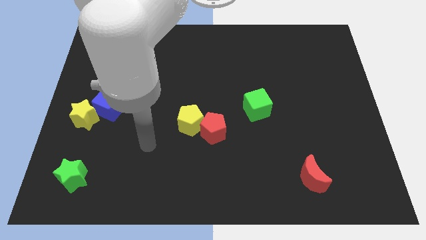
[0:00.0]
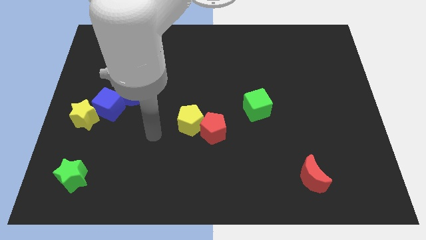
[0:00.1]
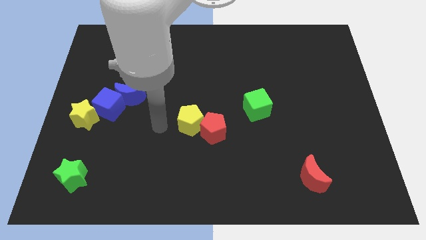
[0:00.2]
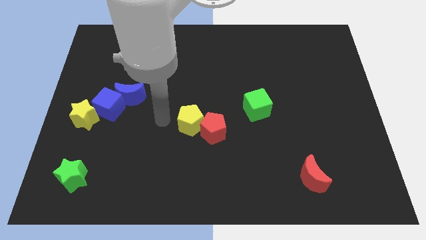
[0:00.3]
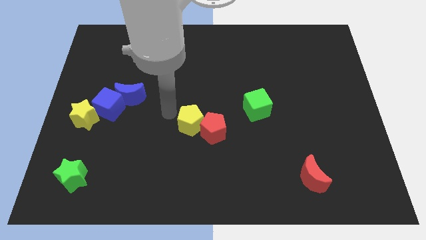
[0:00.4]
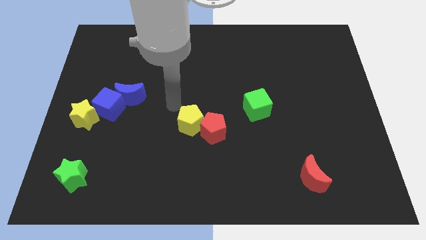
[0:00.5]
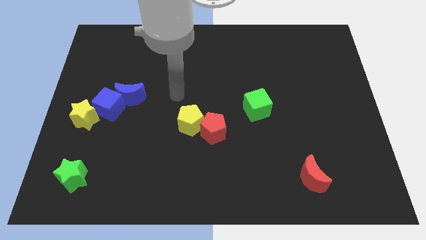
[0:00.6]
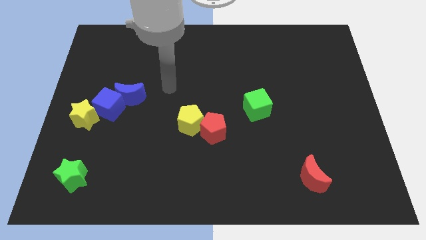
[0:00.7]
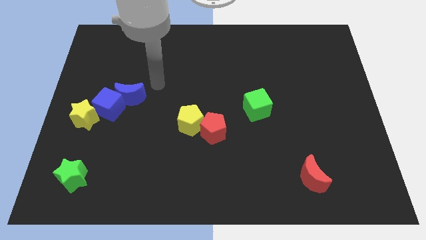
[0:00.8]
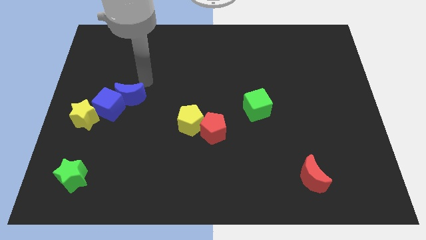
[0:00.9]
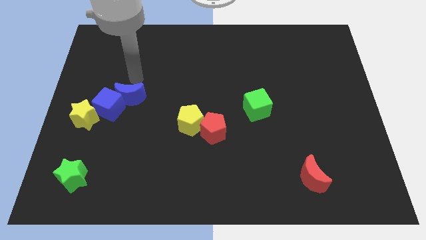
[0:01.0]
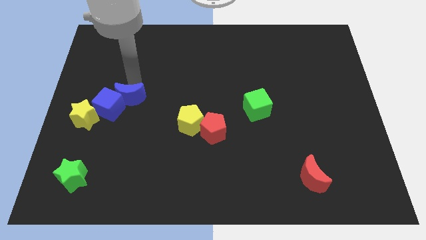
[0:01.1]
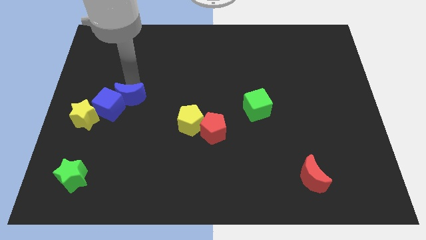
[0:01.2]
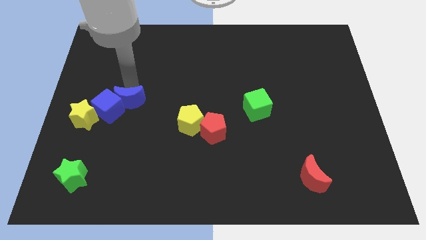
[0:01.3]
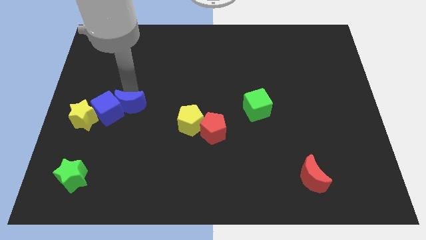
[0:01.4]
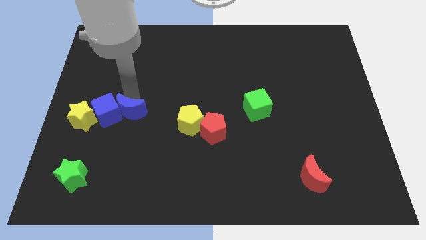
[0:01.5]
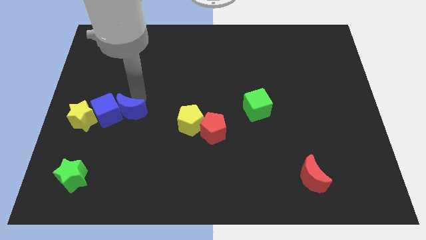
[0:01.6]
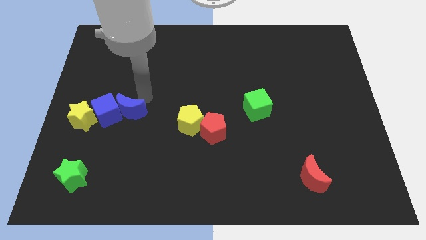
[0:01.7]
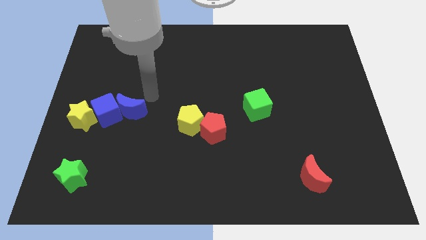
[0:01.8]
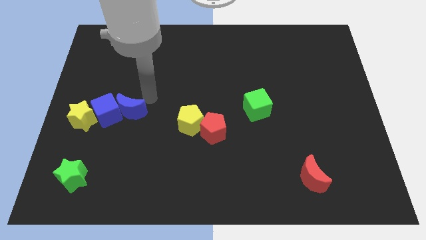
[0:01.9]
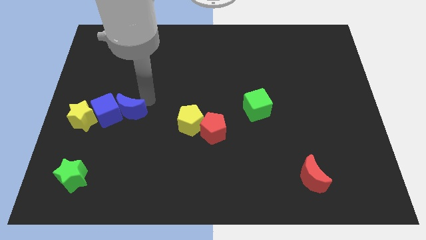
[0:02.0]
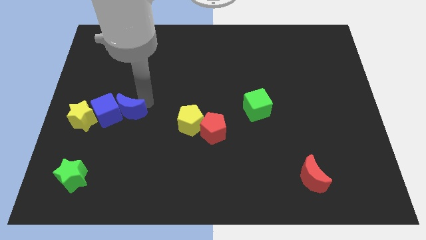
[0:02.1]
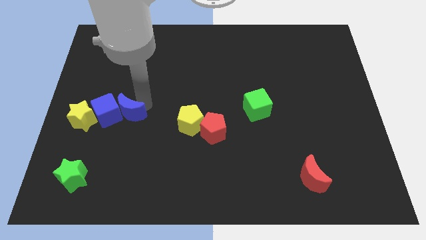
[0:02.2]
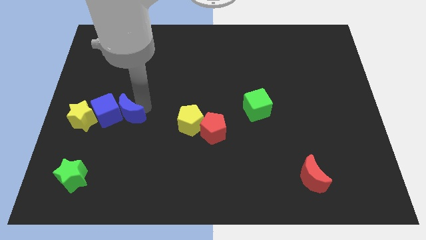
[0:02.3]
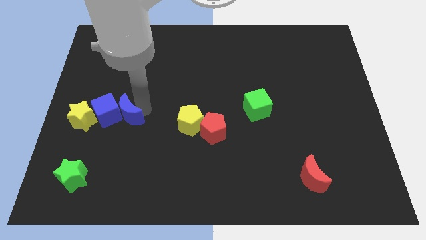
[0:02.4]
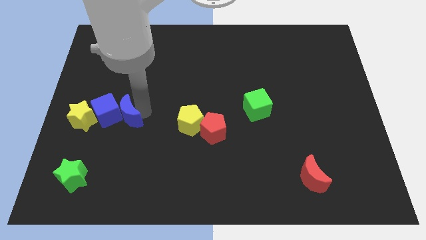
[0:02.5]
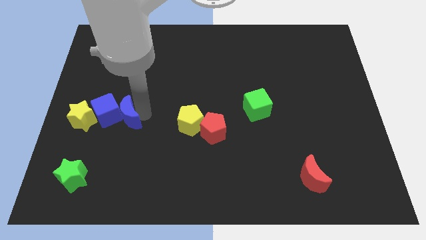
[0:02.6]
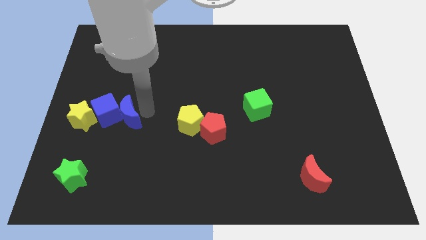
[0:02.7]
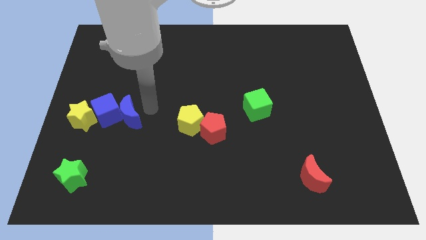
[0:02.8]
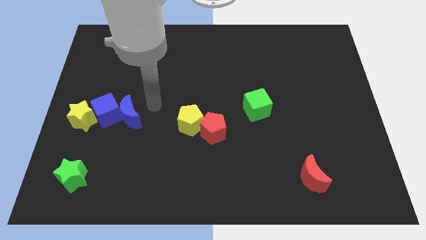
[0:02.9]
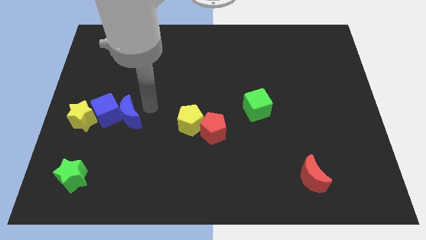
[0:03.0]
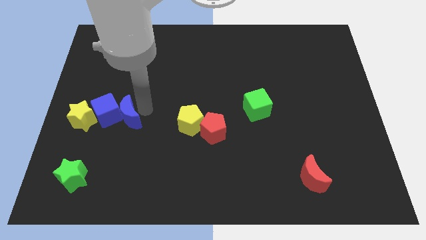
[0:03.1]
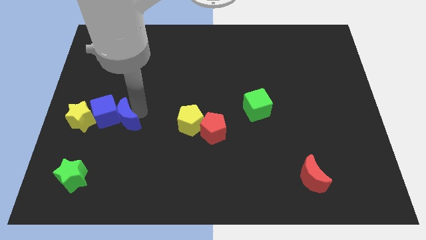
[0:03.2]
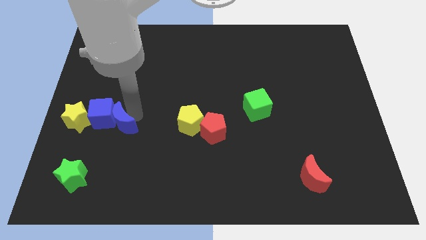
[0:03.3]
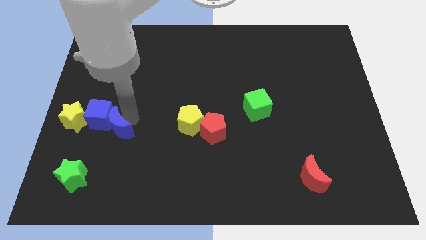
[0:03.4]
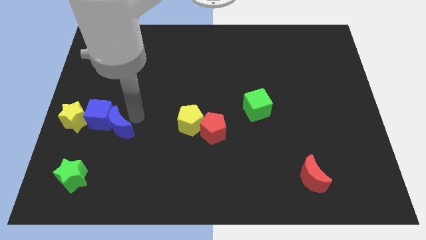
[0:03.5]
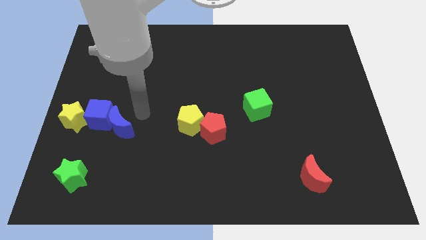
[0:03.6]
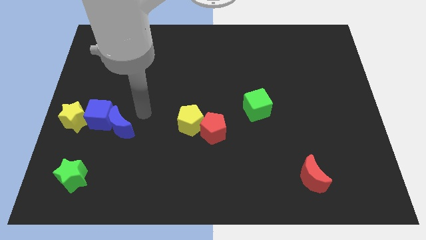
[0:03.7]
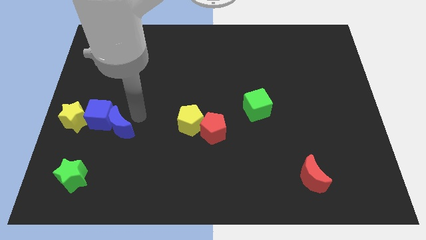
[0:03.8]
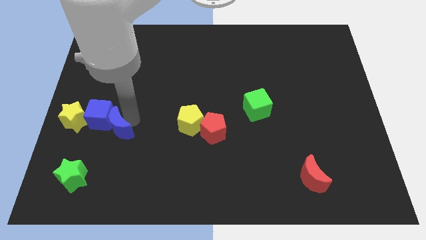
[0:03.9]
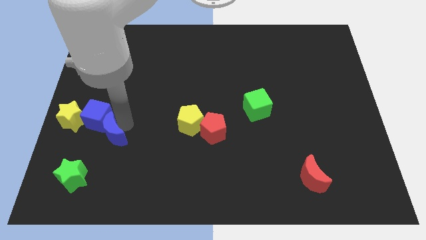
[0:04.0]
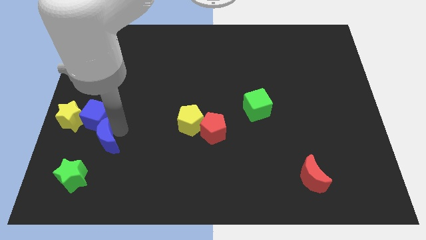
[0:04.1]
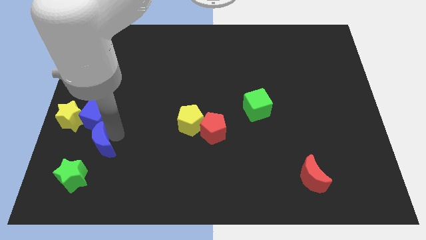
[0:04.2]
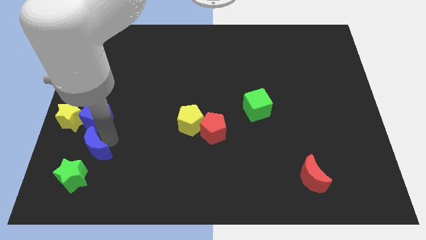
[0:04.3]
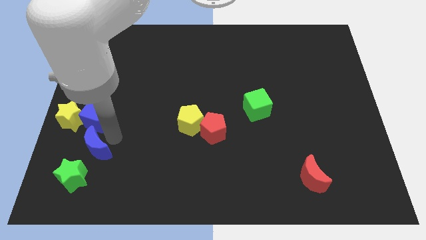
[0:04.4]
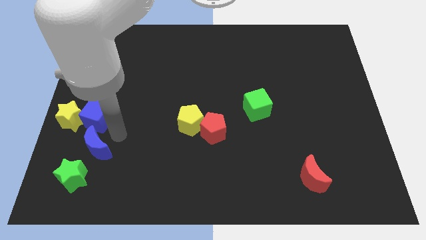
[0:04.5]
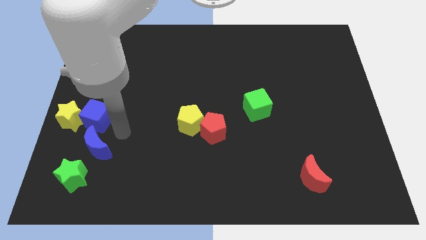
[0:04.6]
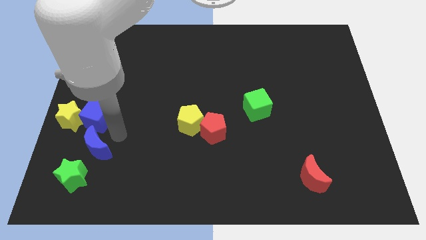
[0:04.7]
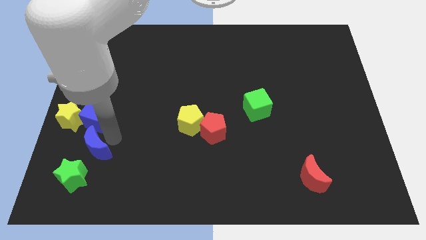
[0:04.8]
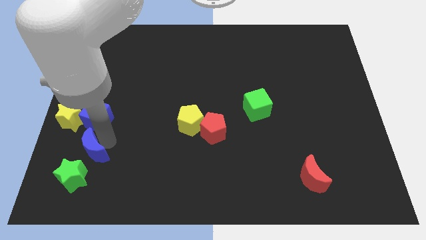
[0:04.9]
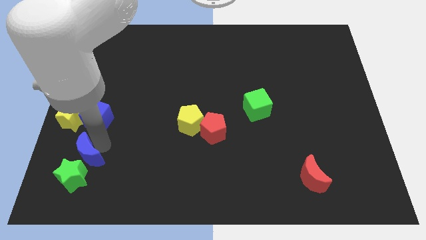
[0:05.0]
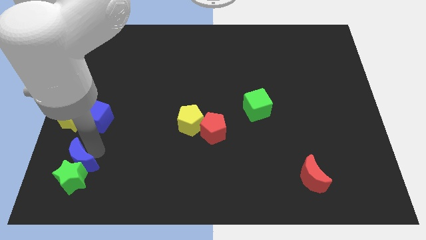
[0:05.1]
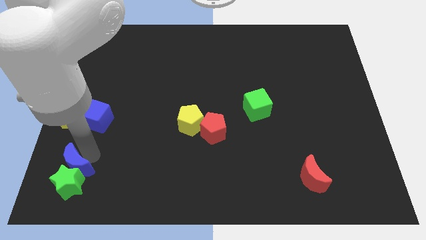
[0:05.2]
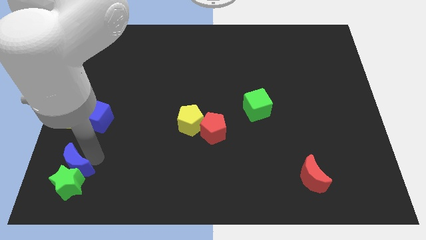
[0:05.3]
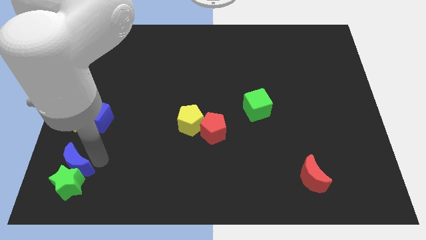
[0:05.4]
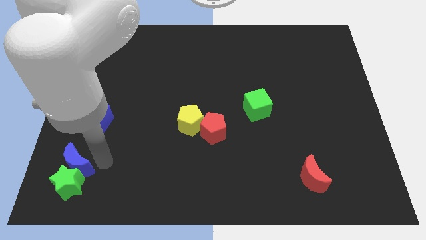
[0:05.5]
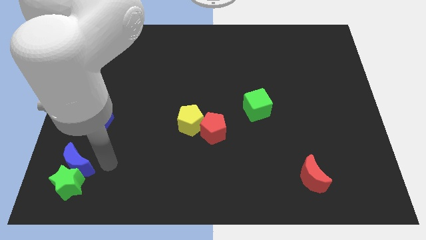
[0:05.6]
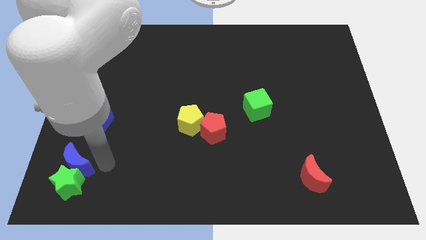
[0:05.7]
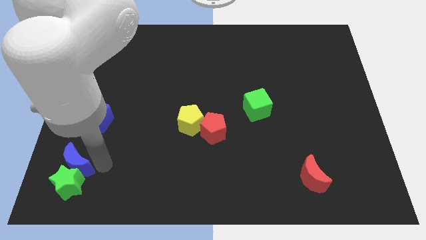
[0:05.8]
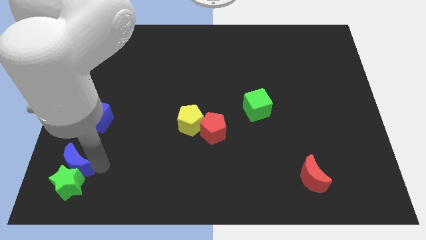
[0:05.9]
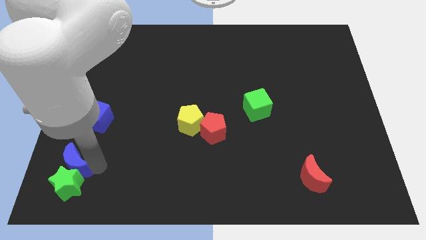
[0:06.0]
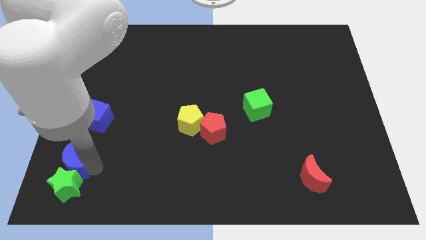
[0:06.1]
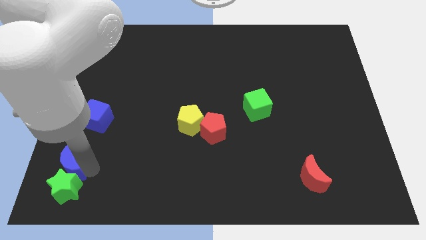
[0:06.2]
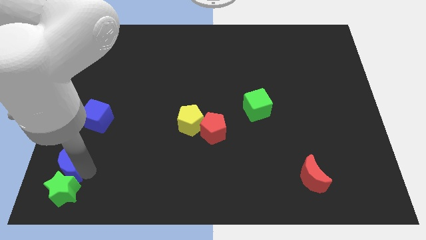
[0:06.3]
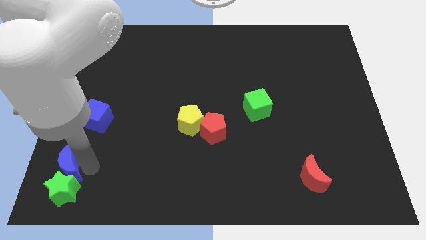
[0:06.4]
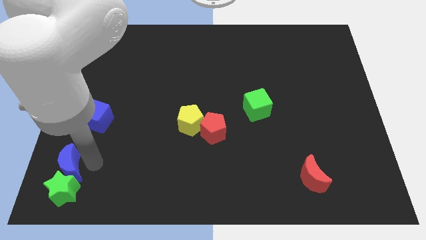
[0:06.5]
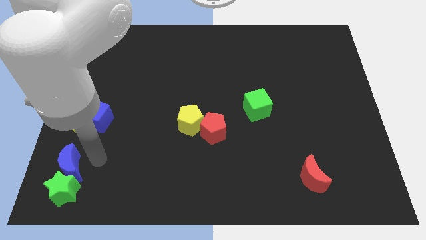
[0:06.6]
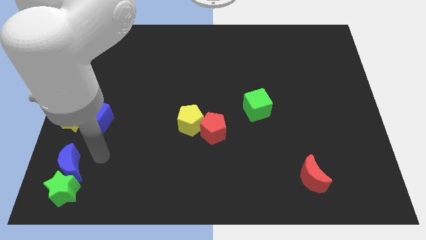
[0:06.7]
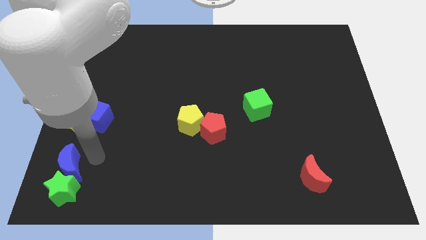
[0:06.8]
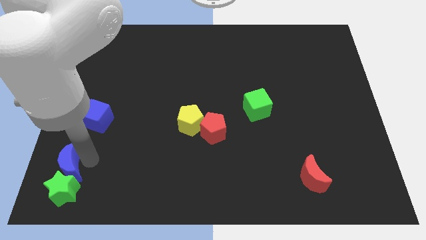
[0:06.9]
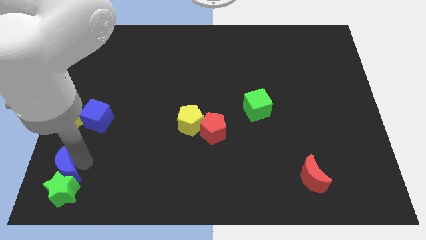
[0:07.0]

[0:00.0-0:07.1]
put the blue moon to the bottom left
